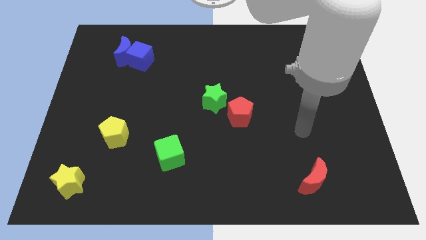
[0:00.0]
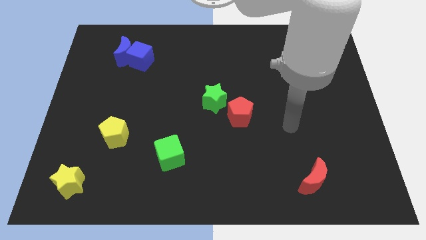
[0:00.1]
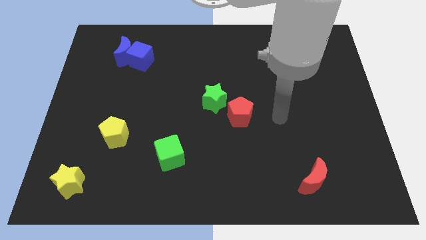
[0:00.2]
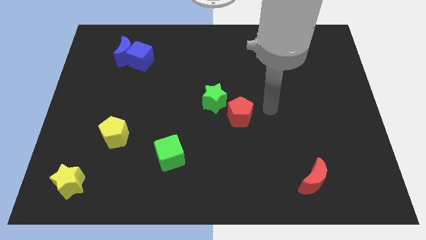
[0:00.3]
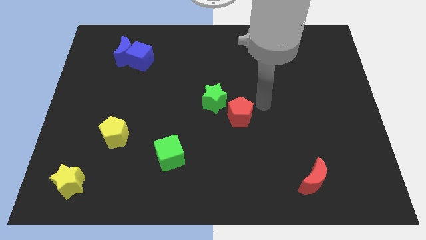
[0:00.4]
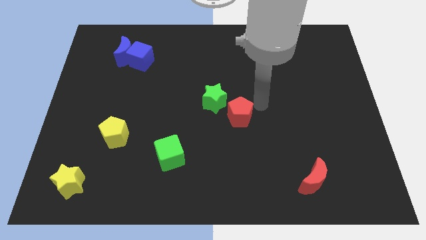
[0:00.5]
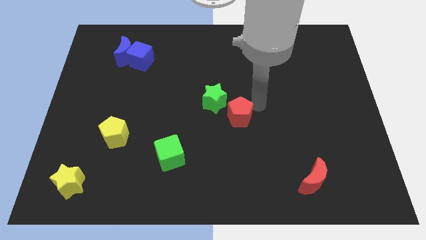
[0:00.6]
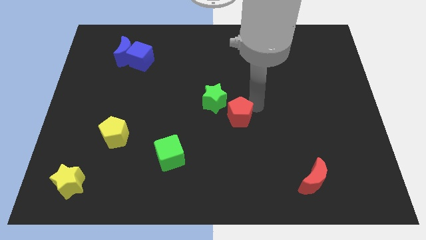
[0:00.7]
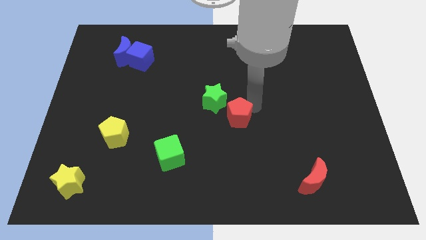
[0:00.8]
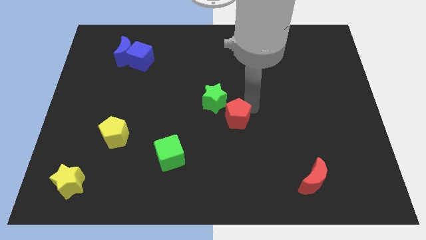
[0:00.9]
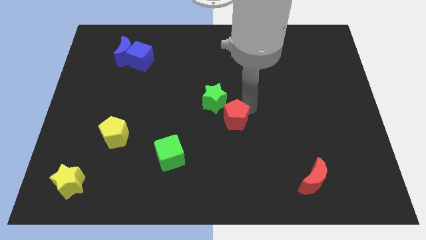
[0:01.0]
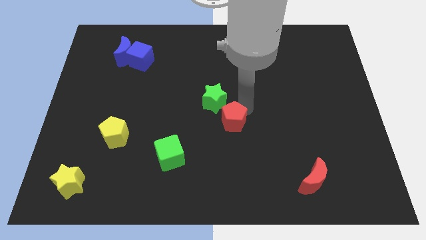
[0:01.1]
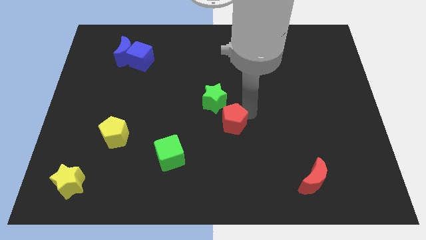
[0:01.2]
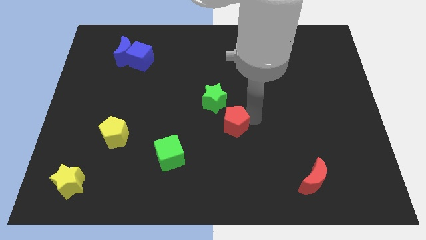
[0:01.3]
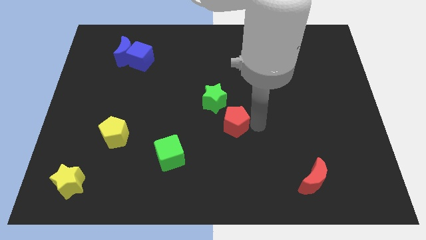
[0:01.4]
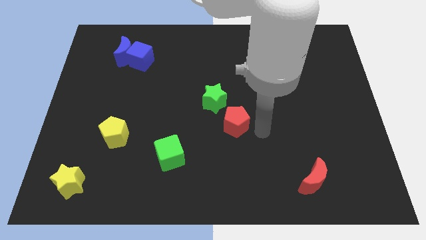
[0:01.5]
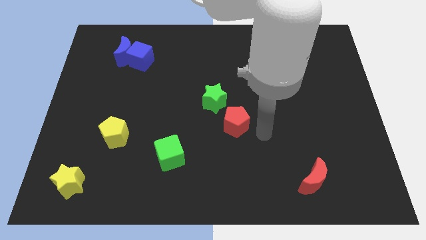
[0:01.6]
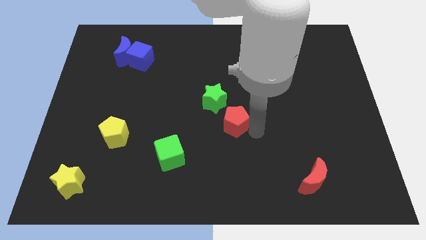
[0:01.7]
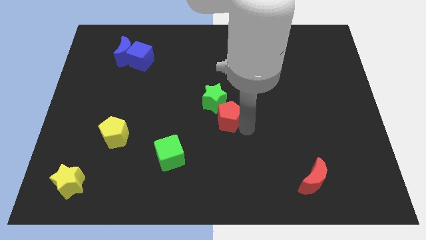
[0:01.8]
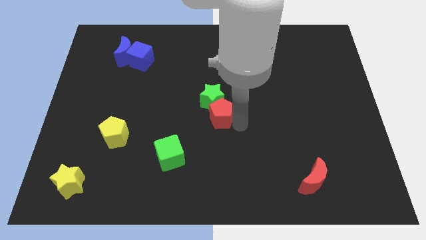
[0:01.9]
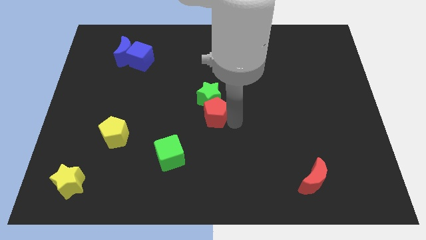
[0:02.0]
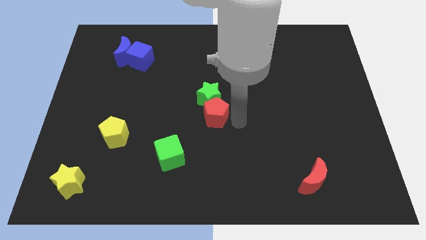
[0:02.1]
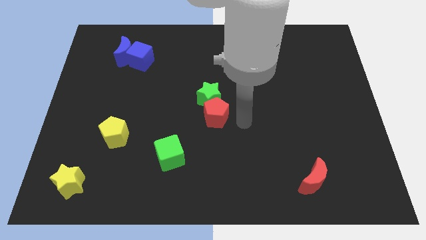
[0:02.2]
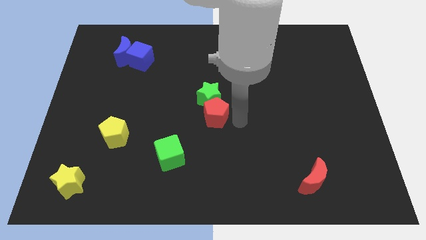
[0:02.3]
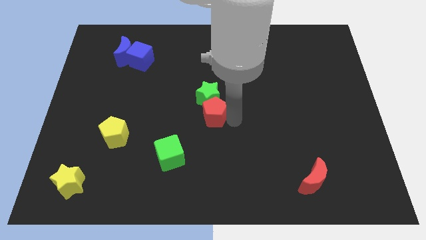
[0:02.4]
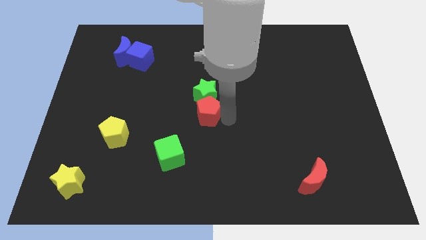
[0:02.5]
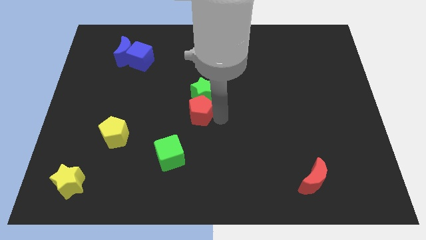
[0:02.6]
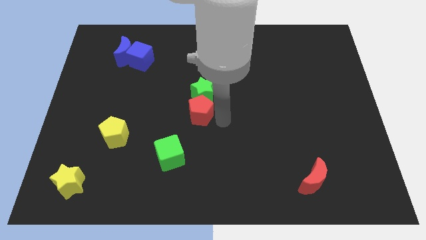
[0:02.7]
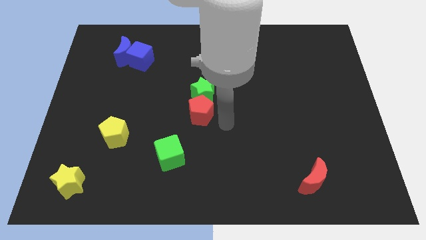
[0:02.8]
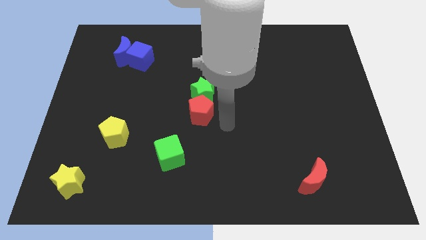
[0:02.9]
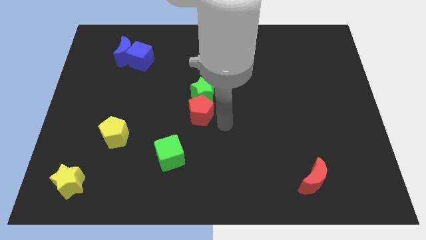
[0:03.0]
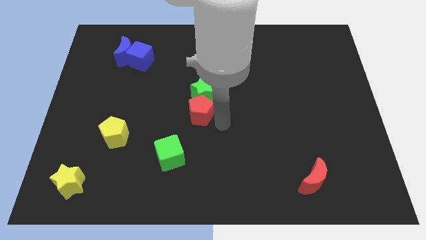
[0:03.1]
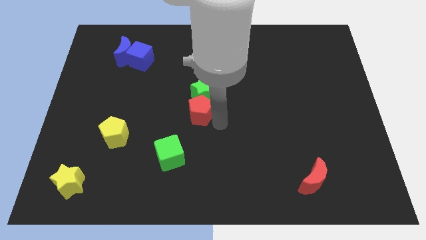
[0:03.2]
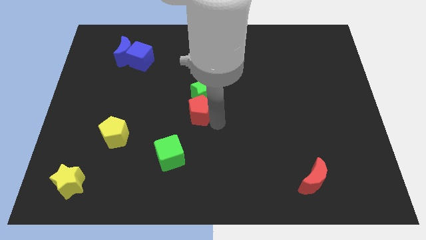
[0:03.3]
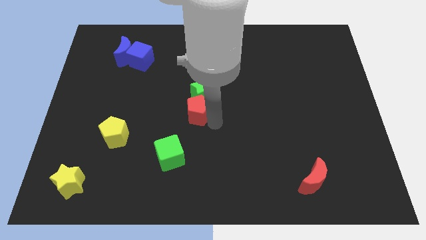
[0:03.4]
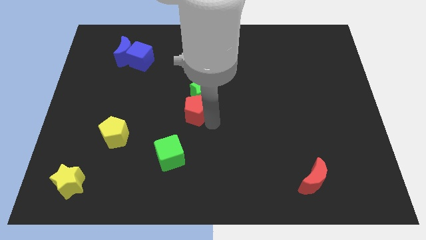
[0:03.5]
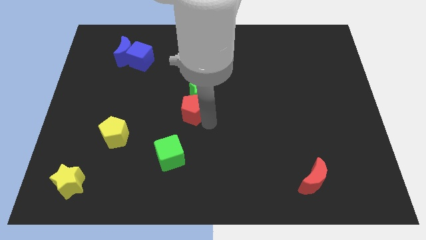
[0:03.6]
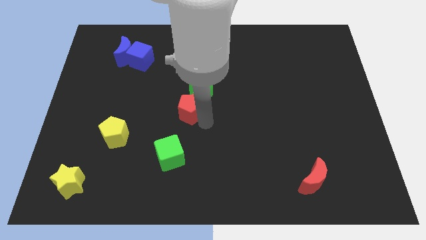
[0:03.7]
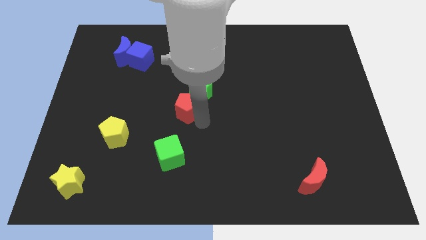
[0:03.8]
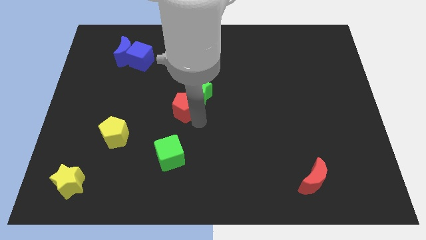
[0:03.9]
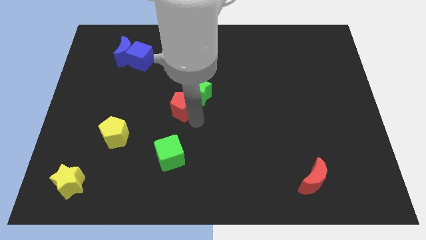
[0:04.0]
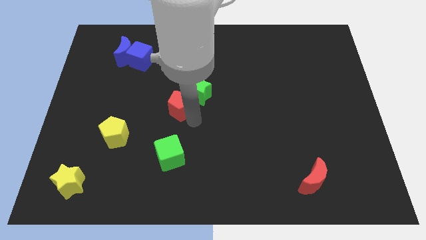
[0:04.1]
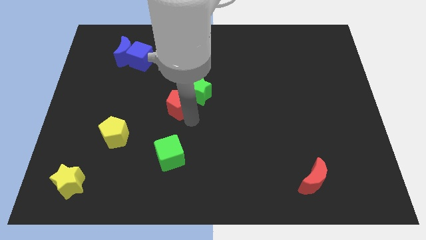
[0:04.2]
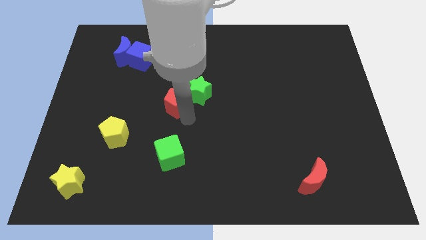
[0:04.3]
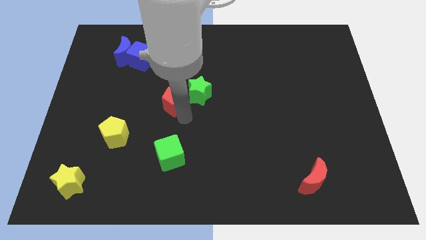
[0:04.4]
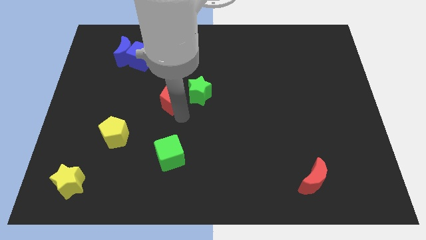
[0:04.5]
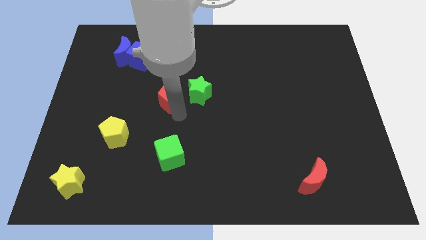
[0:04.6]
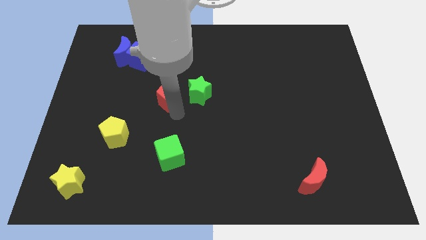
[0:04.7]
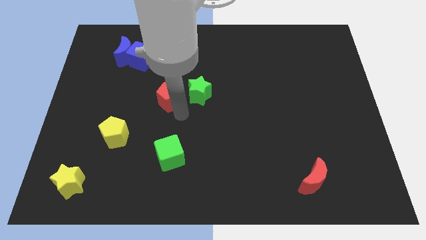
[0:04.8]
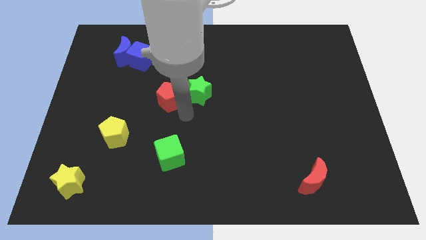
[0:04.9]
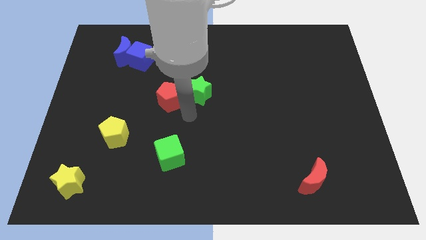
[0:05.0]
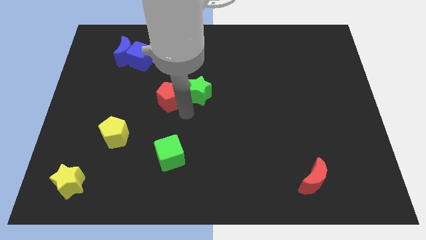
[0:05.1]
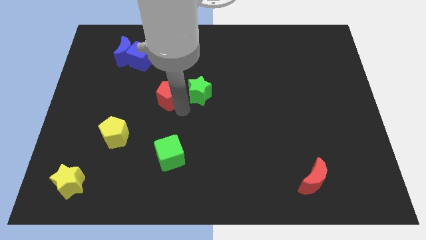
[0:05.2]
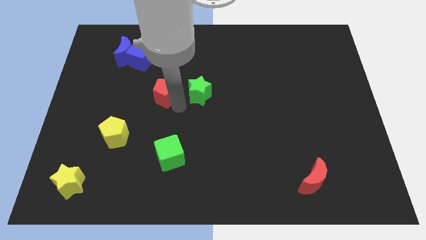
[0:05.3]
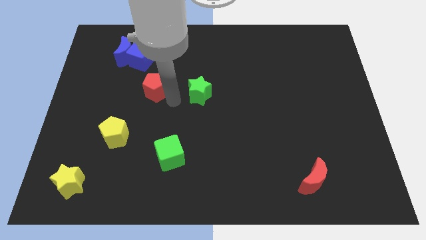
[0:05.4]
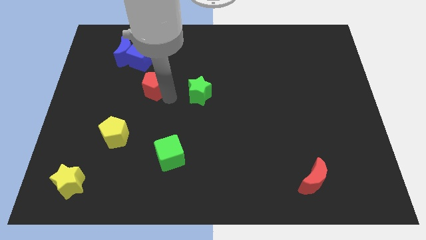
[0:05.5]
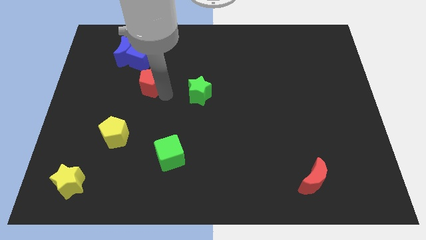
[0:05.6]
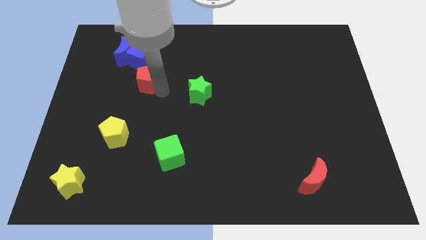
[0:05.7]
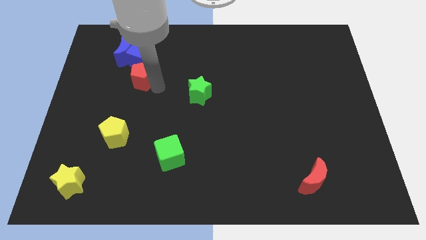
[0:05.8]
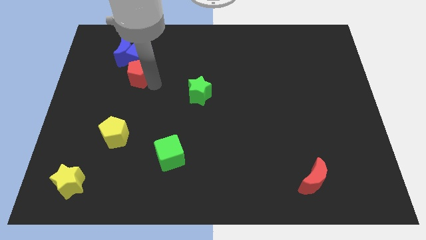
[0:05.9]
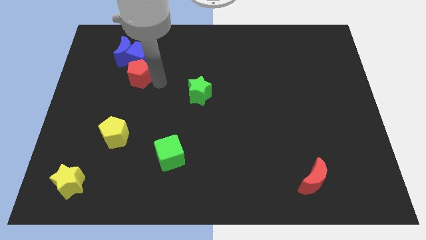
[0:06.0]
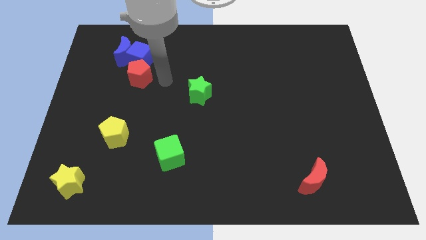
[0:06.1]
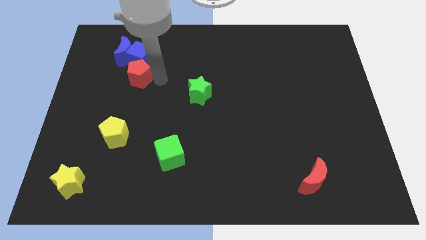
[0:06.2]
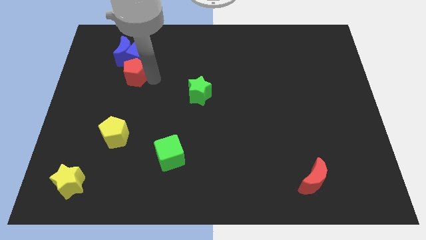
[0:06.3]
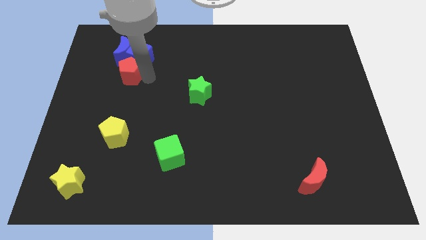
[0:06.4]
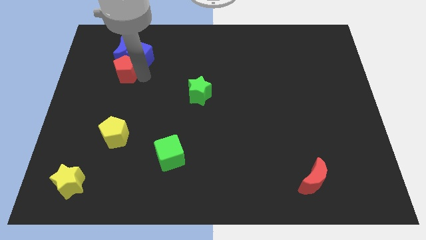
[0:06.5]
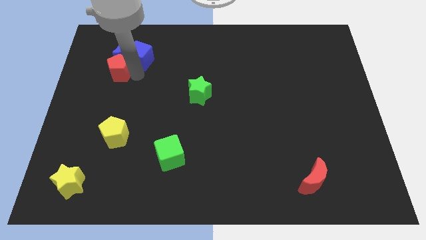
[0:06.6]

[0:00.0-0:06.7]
move the red pentagon to the bottom left of the blue moon

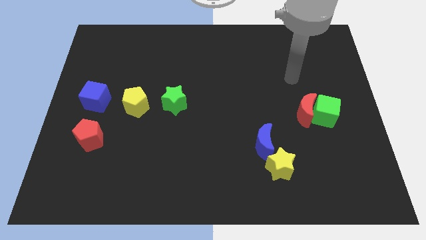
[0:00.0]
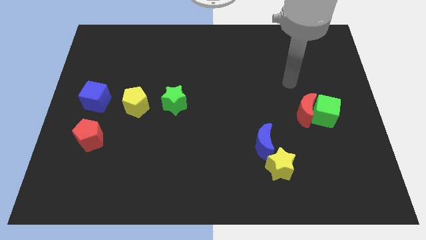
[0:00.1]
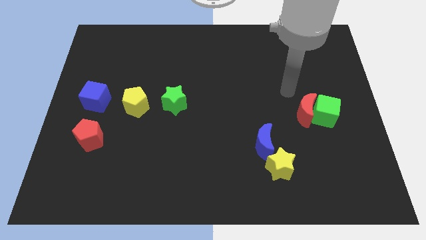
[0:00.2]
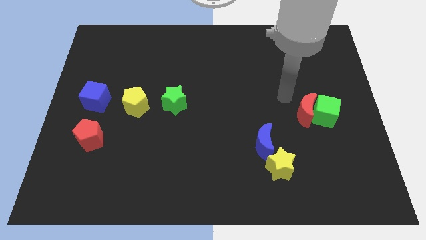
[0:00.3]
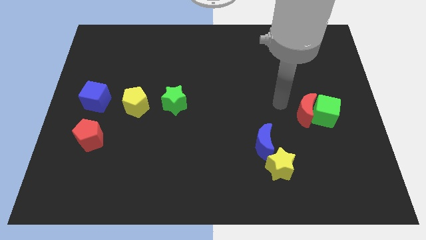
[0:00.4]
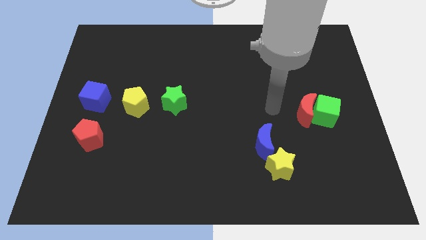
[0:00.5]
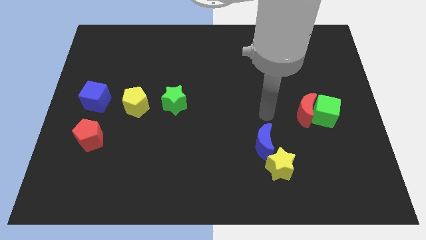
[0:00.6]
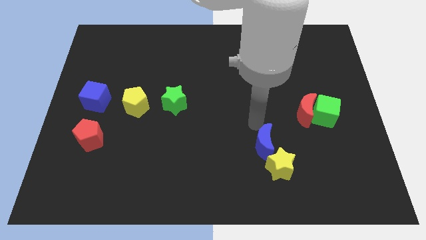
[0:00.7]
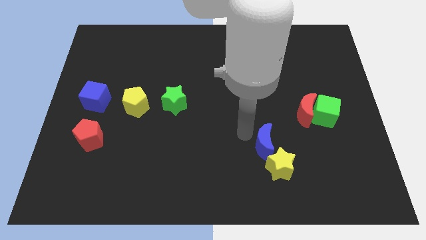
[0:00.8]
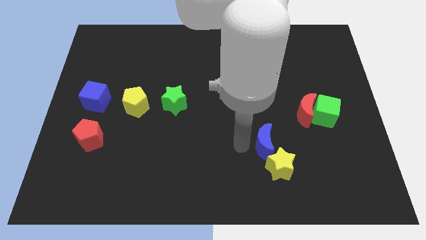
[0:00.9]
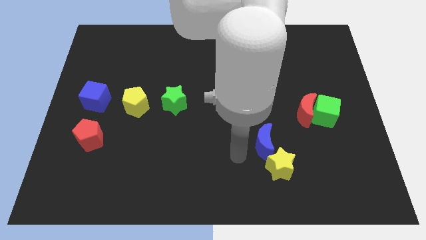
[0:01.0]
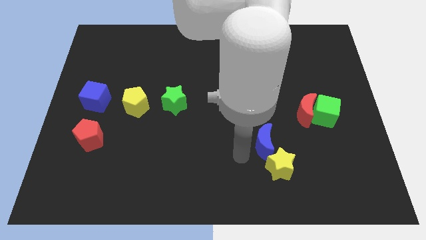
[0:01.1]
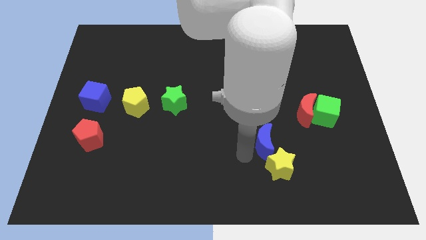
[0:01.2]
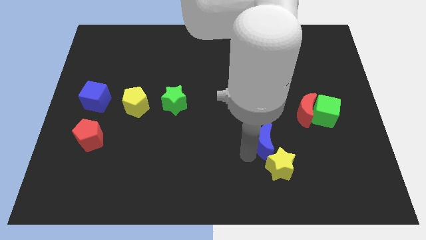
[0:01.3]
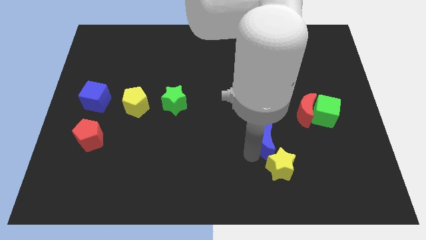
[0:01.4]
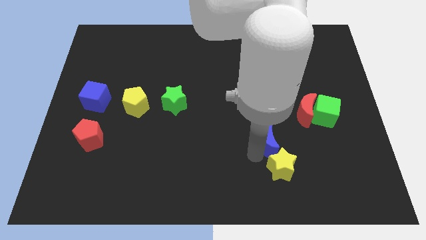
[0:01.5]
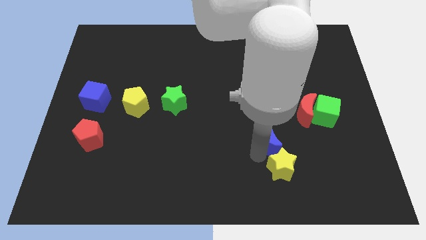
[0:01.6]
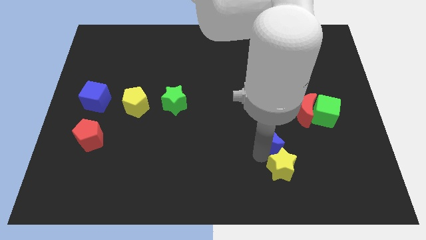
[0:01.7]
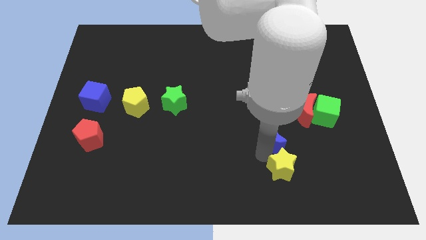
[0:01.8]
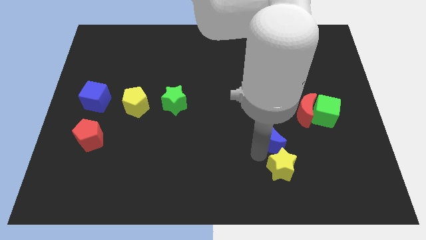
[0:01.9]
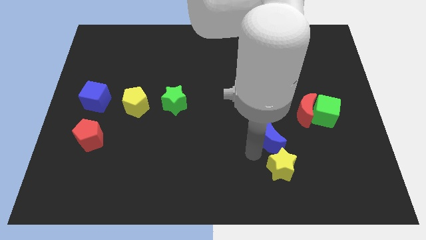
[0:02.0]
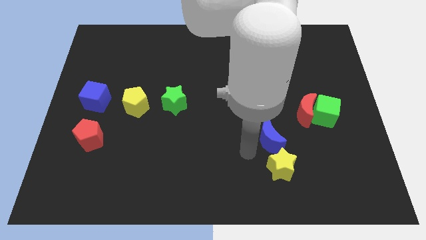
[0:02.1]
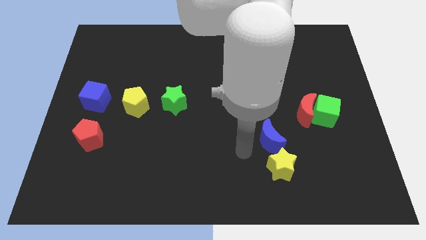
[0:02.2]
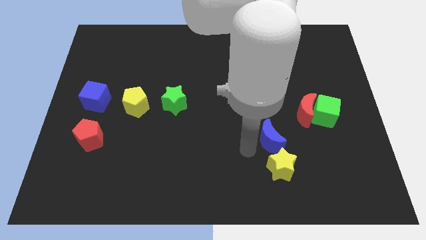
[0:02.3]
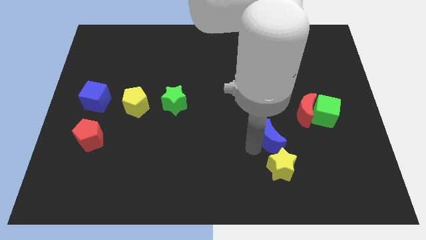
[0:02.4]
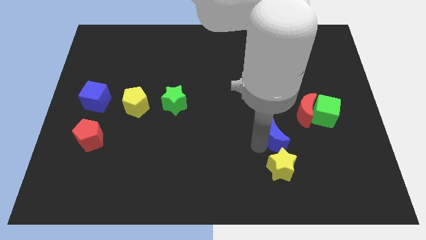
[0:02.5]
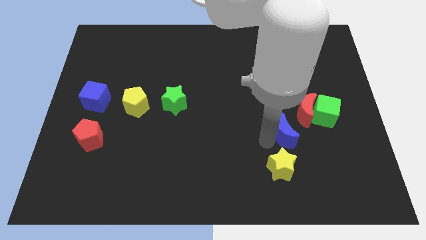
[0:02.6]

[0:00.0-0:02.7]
slide the blue moon diagonally down and to the left of the green cube
